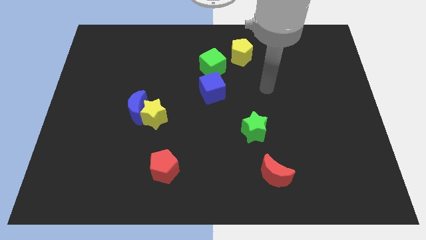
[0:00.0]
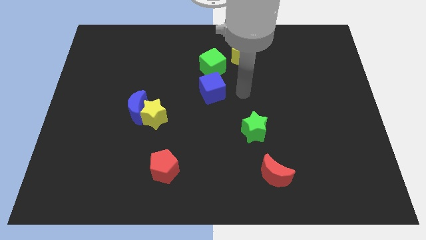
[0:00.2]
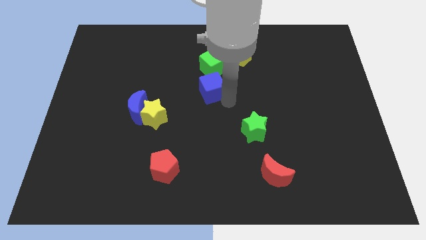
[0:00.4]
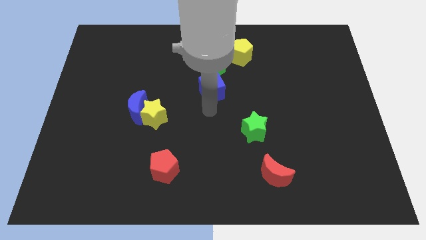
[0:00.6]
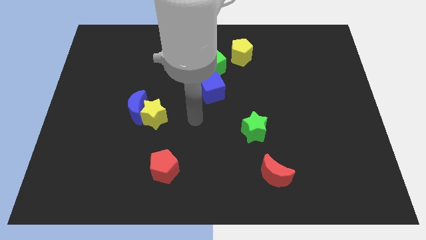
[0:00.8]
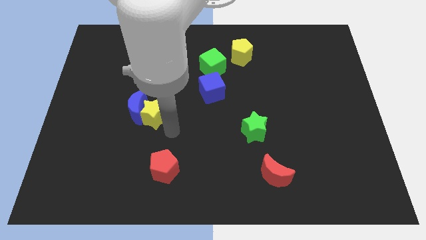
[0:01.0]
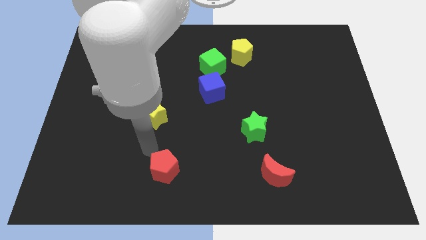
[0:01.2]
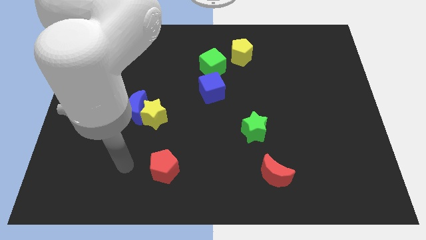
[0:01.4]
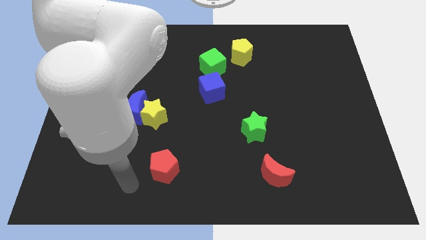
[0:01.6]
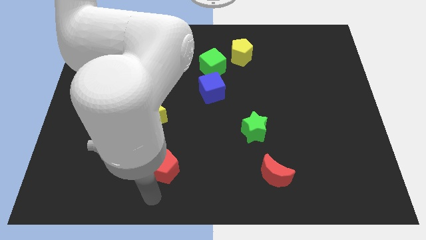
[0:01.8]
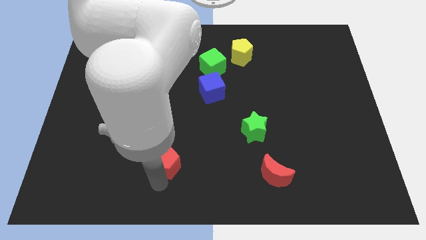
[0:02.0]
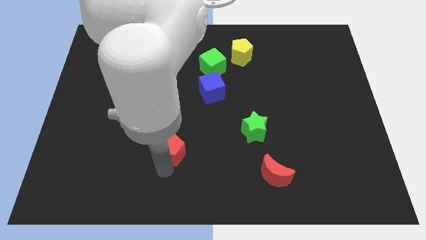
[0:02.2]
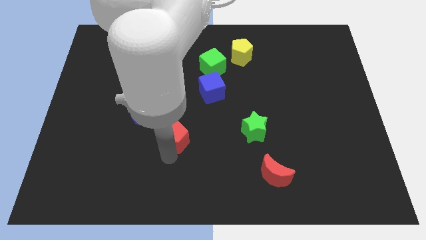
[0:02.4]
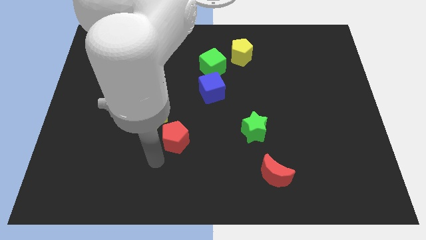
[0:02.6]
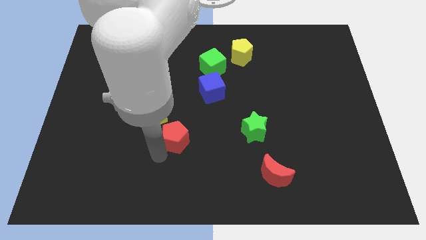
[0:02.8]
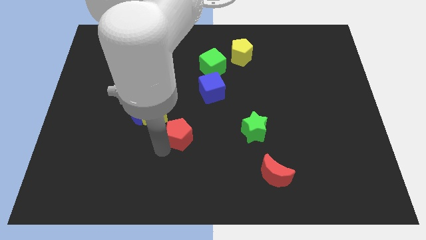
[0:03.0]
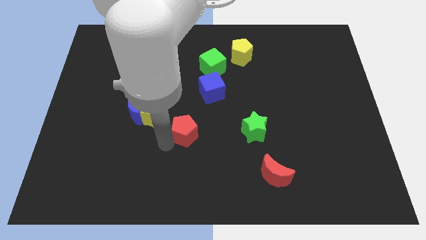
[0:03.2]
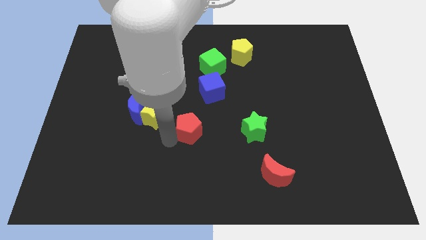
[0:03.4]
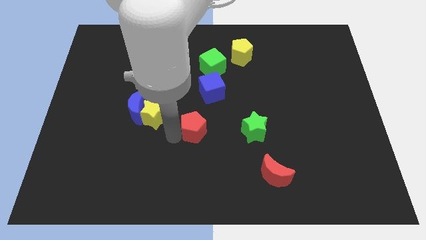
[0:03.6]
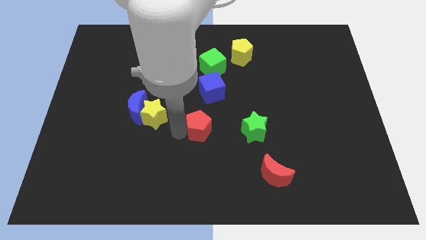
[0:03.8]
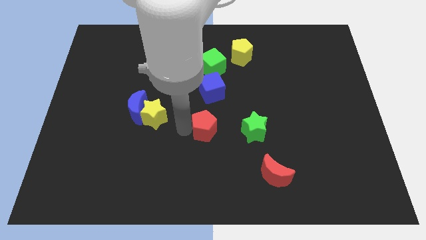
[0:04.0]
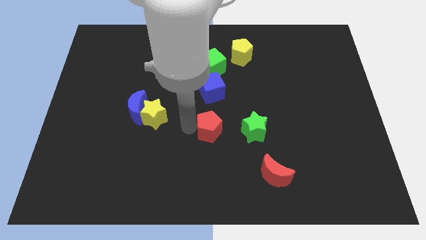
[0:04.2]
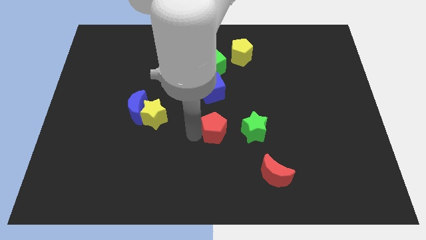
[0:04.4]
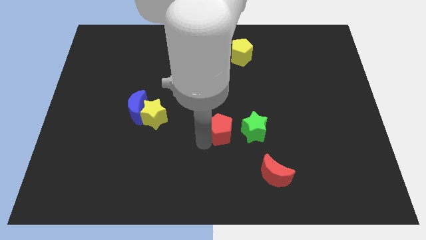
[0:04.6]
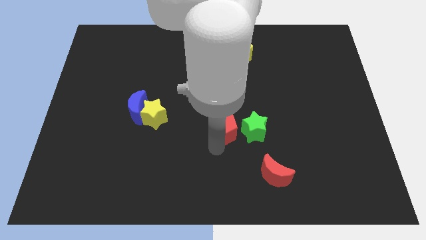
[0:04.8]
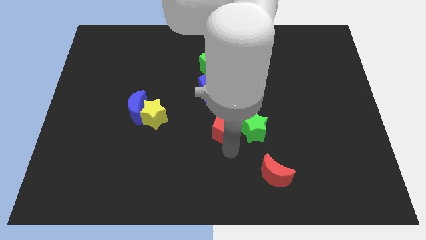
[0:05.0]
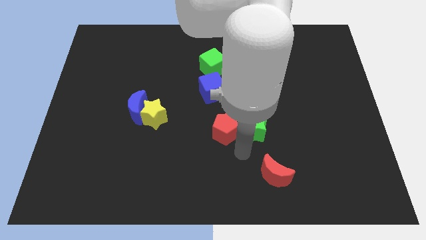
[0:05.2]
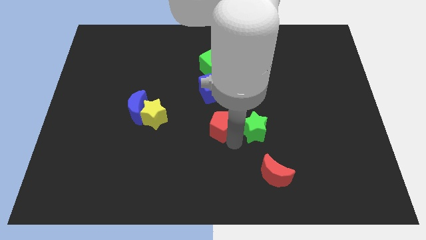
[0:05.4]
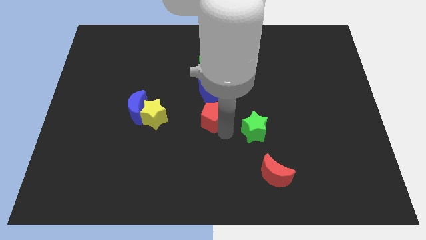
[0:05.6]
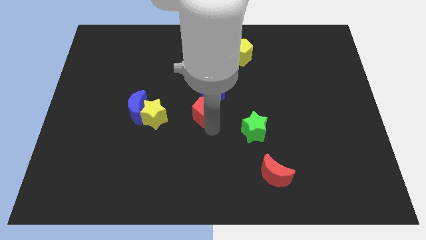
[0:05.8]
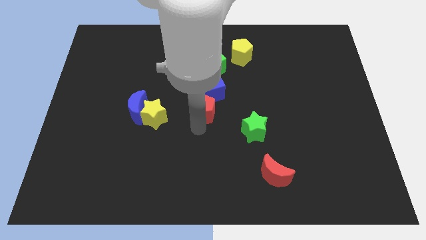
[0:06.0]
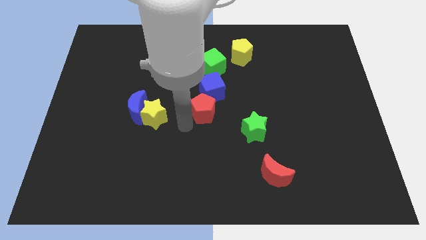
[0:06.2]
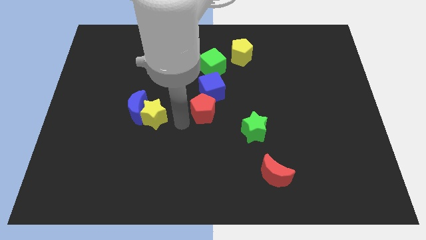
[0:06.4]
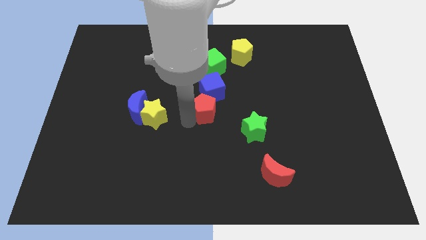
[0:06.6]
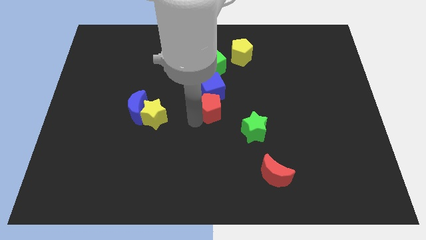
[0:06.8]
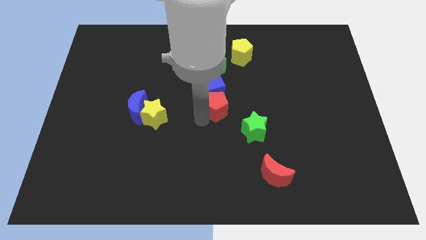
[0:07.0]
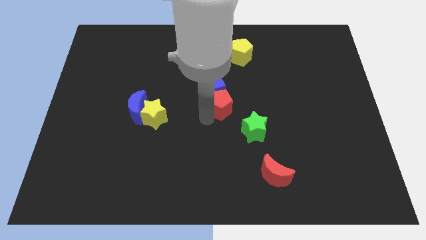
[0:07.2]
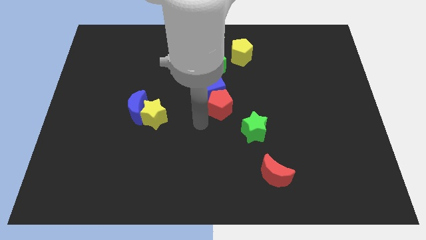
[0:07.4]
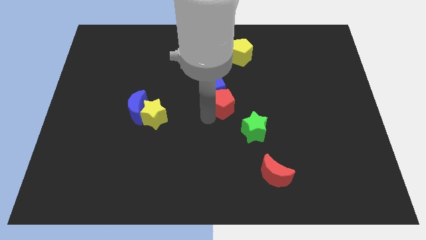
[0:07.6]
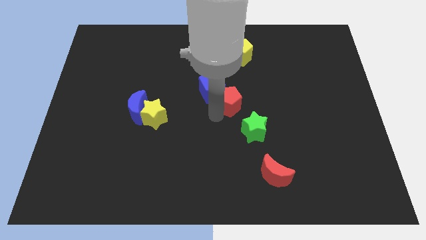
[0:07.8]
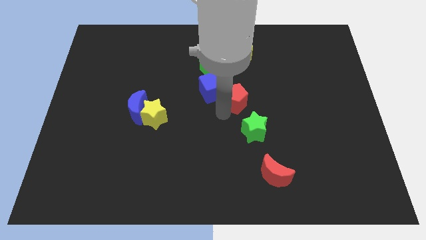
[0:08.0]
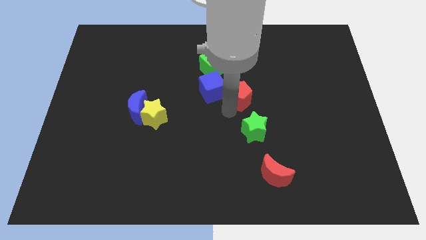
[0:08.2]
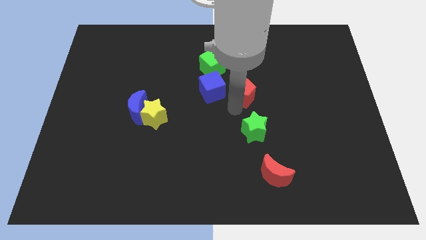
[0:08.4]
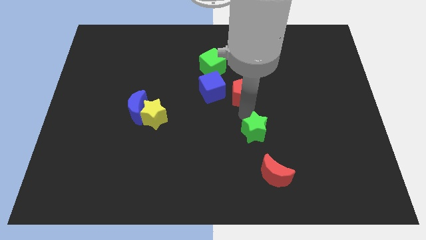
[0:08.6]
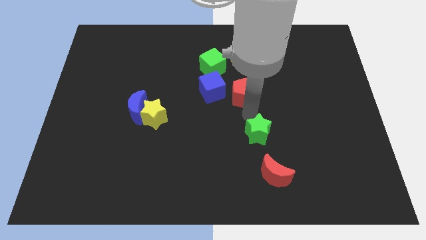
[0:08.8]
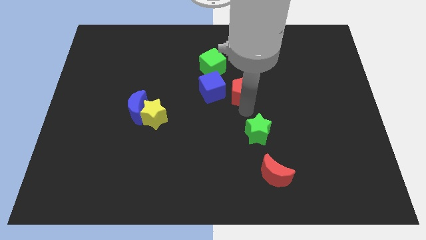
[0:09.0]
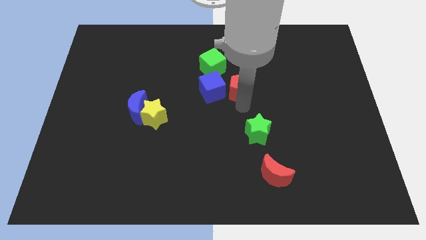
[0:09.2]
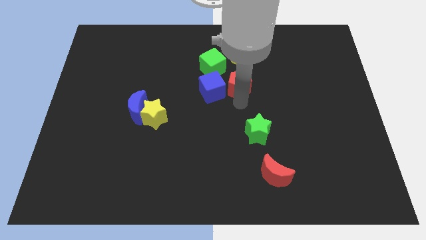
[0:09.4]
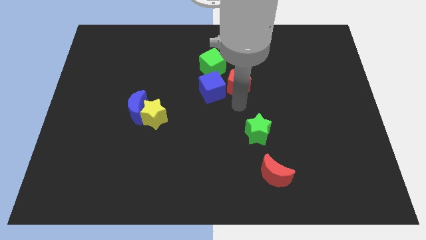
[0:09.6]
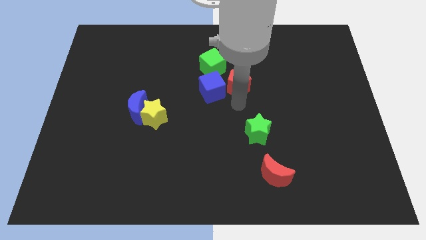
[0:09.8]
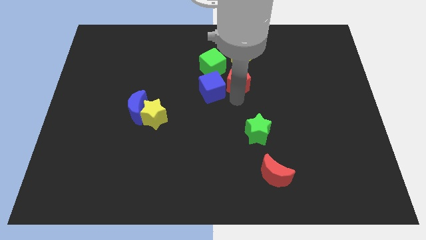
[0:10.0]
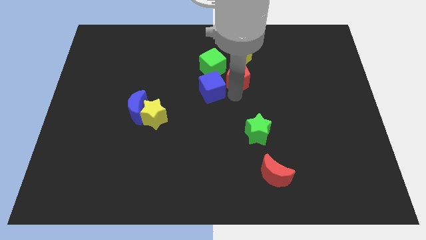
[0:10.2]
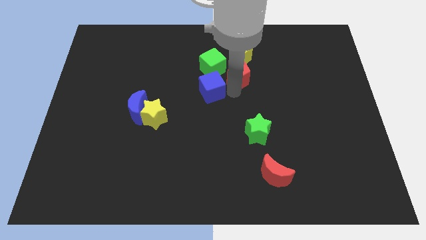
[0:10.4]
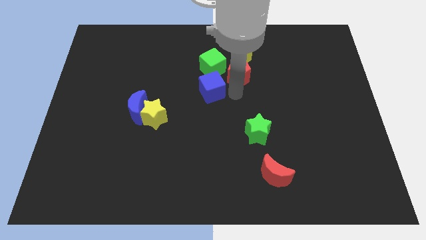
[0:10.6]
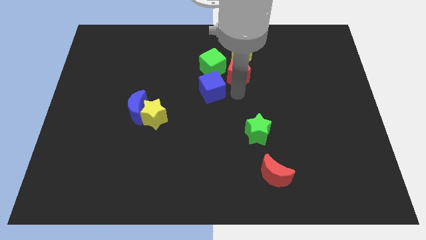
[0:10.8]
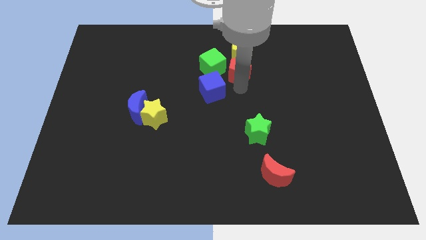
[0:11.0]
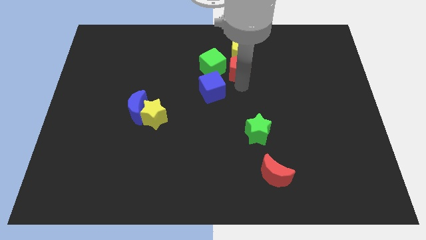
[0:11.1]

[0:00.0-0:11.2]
push the red pentagon towards the yellow pentagon

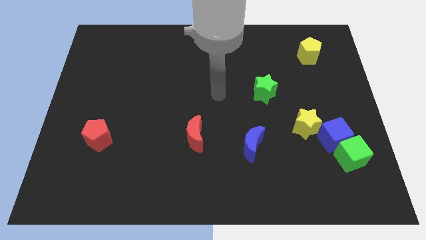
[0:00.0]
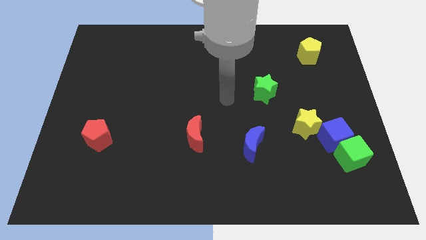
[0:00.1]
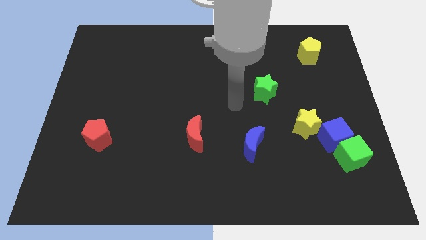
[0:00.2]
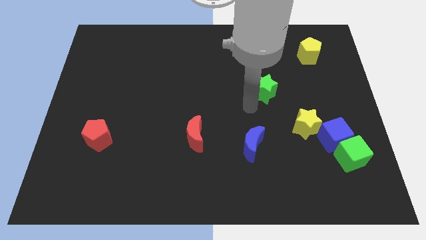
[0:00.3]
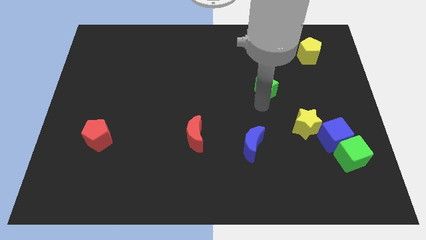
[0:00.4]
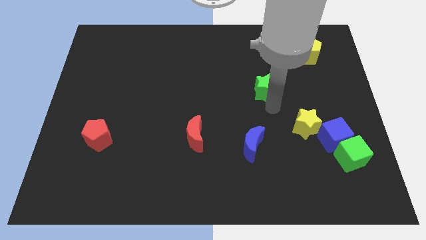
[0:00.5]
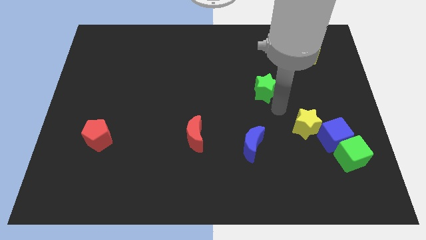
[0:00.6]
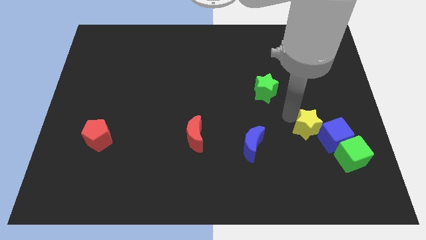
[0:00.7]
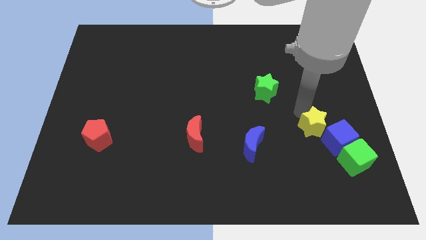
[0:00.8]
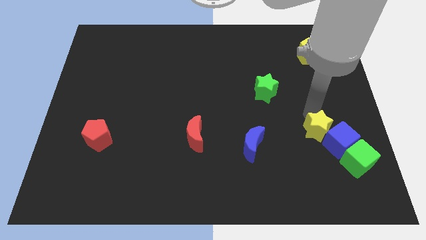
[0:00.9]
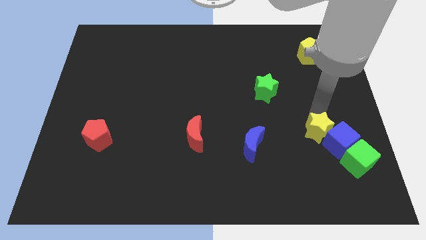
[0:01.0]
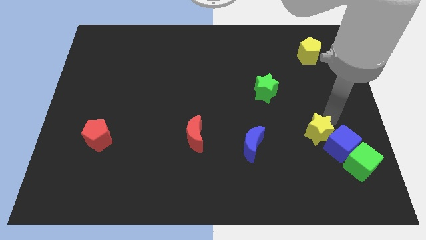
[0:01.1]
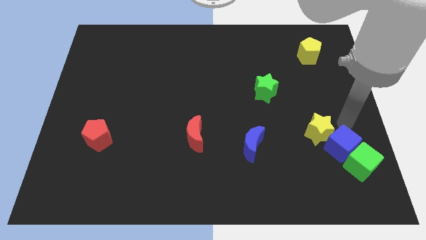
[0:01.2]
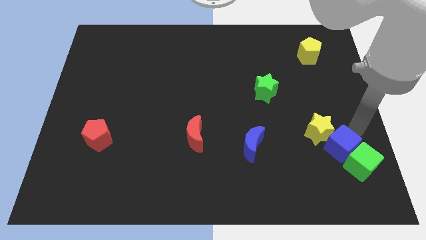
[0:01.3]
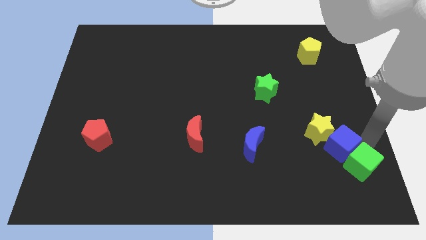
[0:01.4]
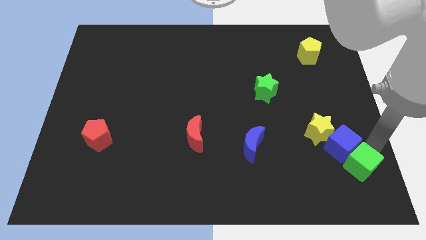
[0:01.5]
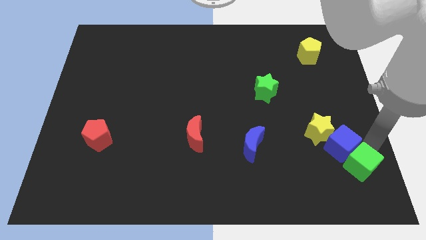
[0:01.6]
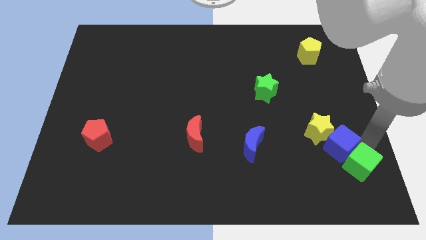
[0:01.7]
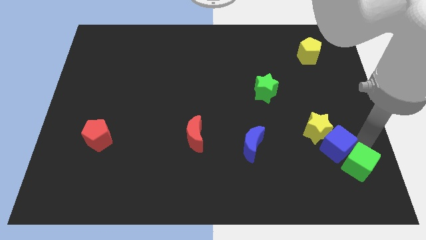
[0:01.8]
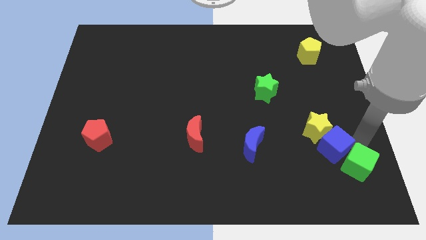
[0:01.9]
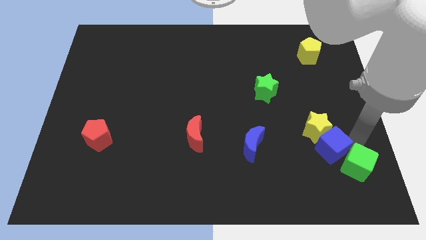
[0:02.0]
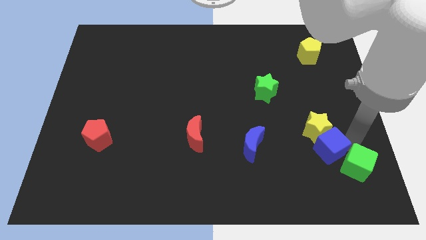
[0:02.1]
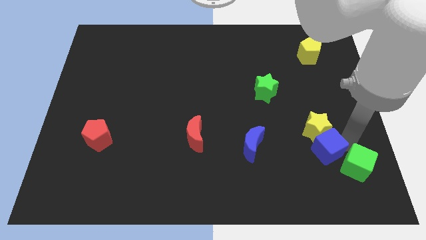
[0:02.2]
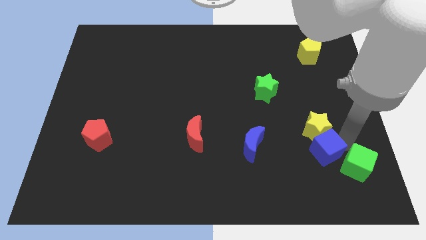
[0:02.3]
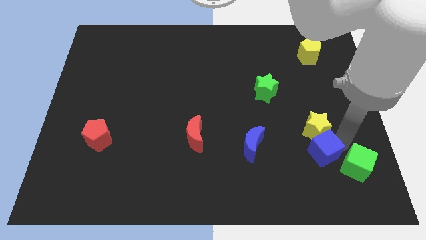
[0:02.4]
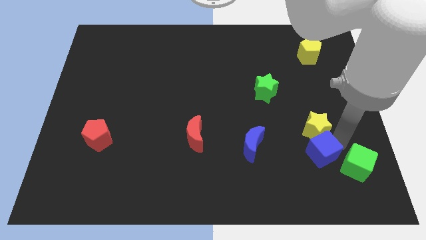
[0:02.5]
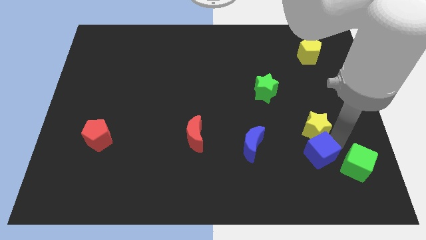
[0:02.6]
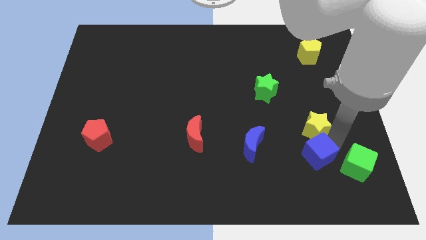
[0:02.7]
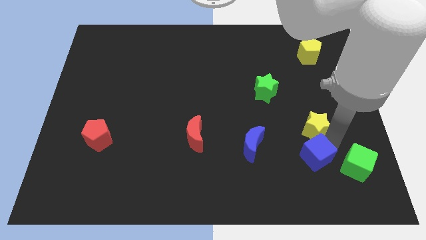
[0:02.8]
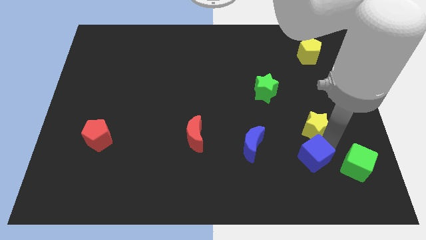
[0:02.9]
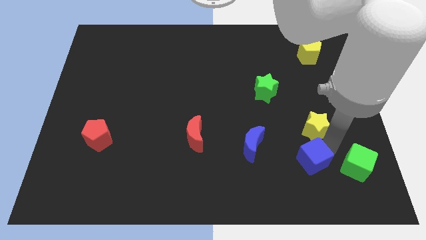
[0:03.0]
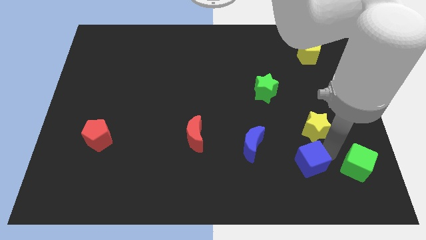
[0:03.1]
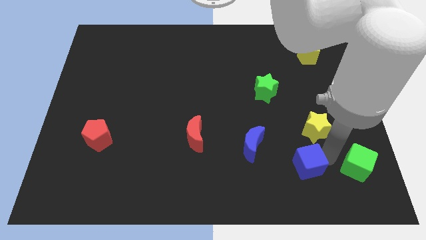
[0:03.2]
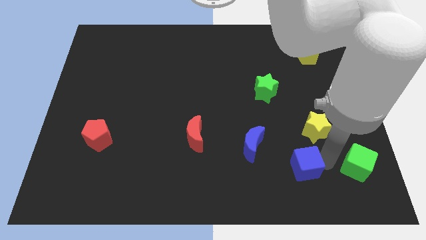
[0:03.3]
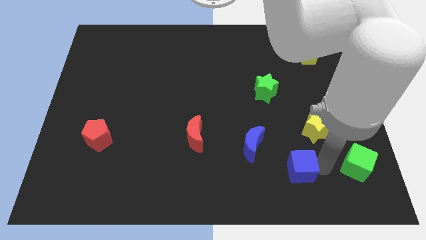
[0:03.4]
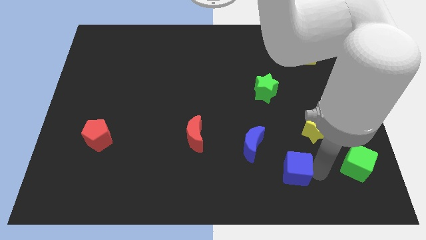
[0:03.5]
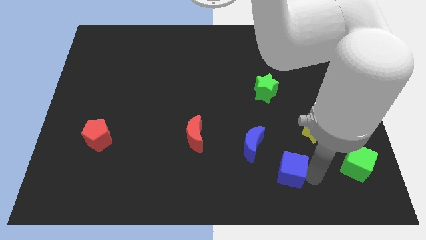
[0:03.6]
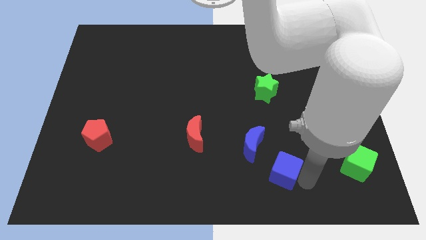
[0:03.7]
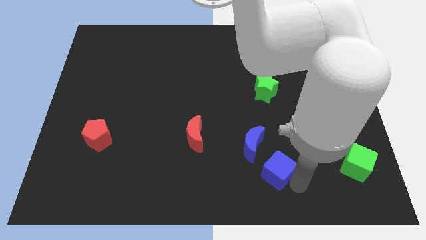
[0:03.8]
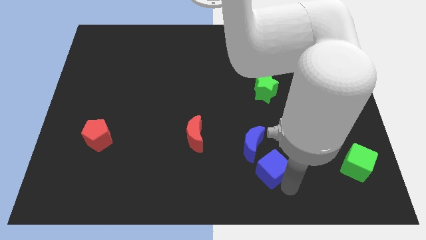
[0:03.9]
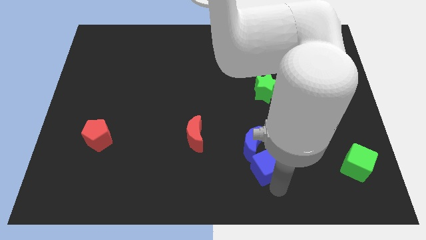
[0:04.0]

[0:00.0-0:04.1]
slide the blue cube next to the blue moon
